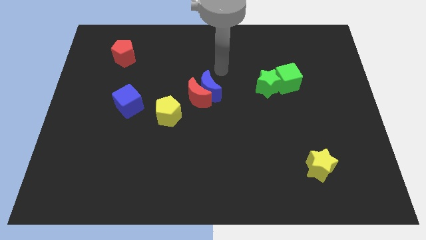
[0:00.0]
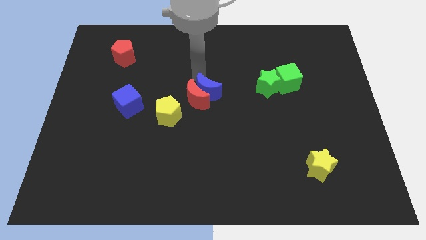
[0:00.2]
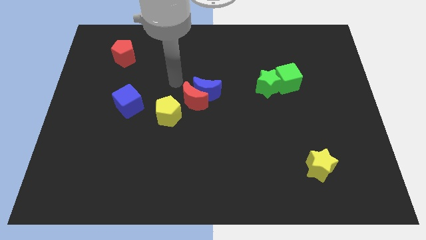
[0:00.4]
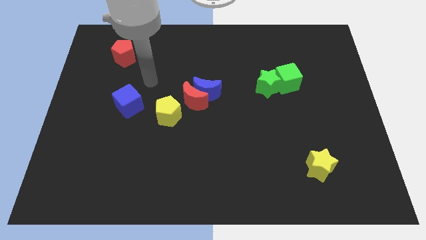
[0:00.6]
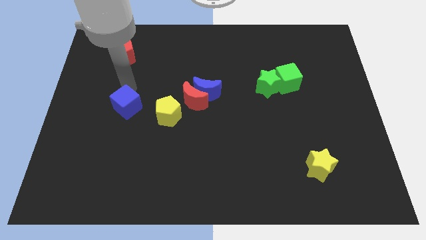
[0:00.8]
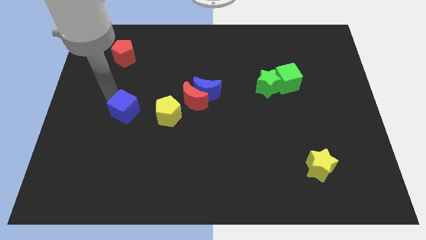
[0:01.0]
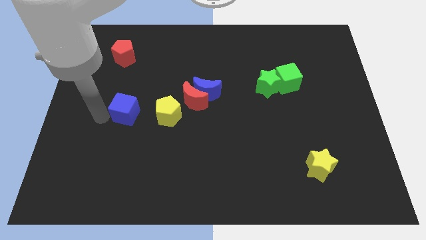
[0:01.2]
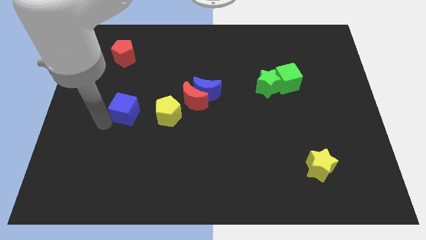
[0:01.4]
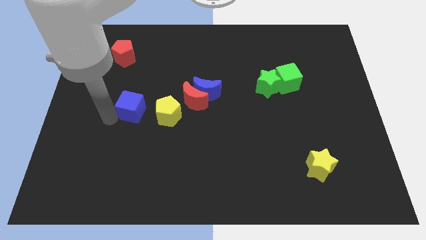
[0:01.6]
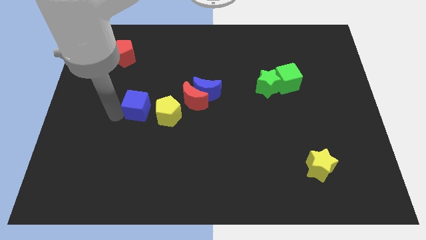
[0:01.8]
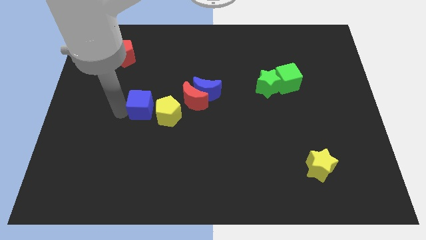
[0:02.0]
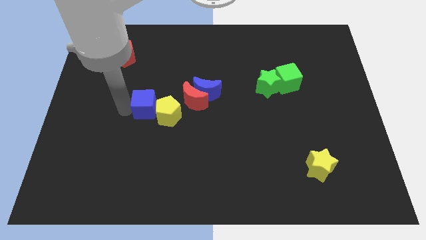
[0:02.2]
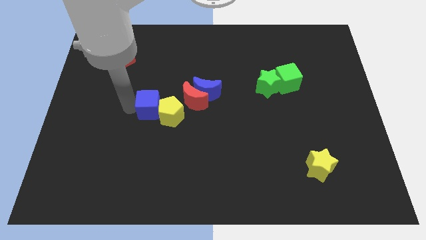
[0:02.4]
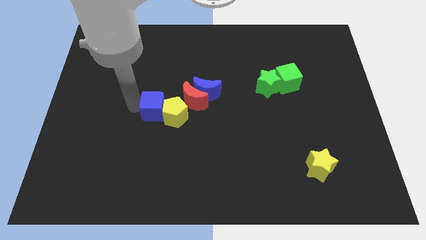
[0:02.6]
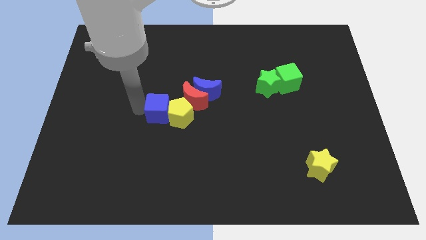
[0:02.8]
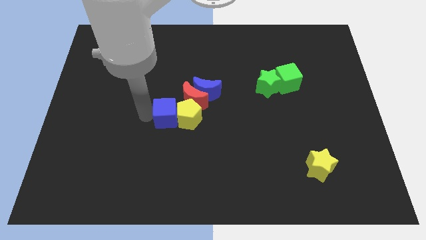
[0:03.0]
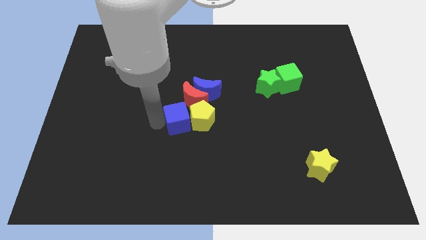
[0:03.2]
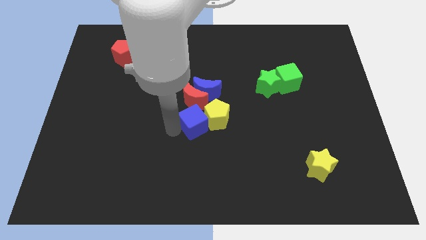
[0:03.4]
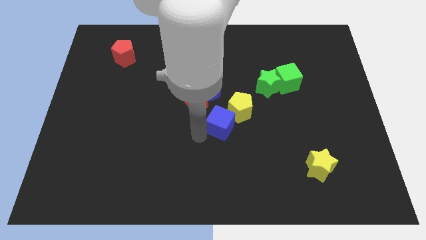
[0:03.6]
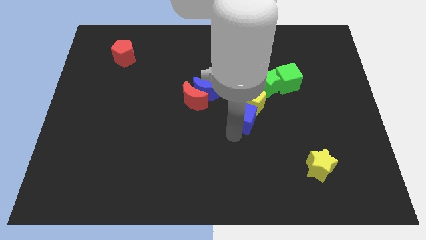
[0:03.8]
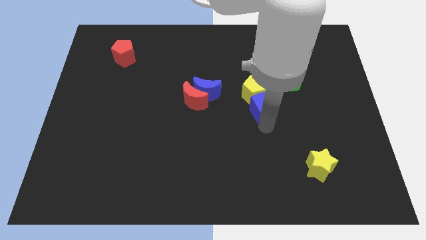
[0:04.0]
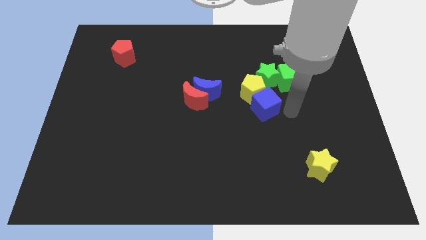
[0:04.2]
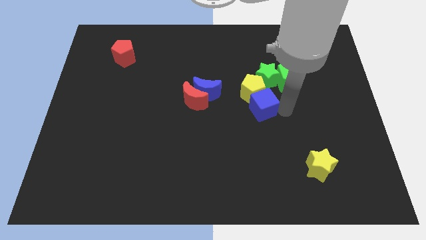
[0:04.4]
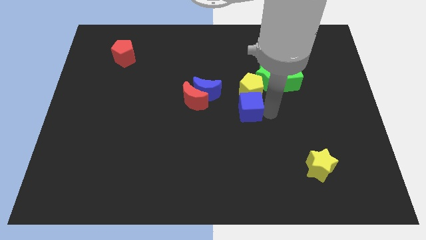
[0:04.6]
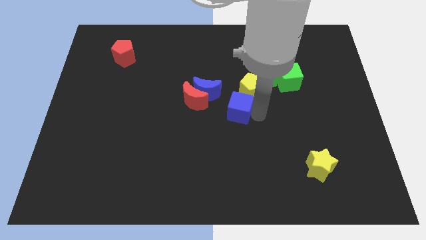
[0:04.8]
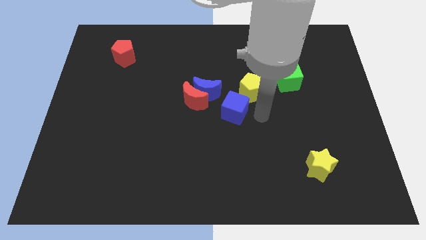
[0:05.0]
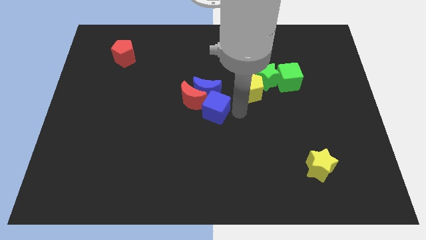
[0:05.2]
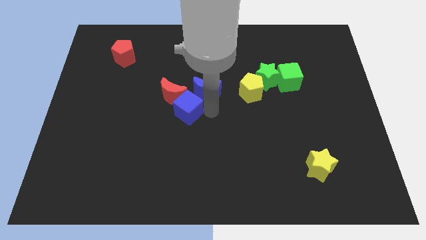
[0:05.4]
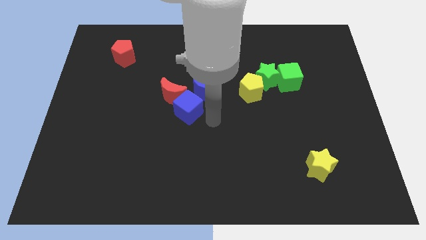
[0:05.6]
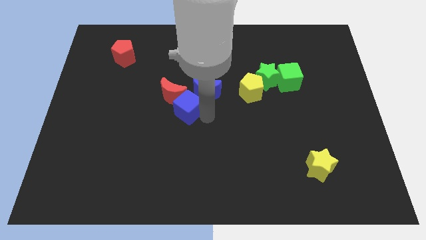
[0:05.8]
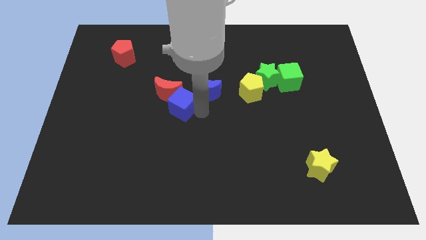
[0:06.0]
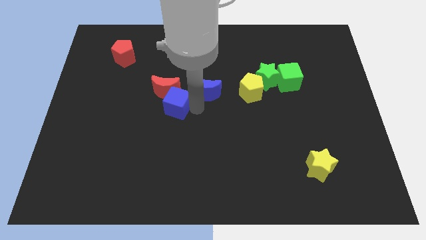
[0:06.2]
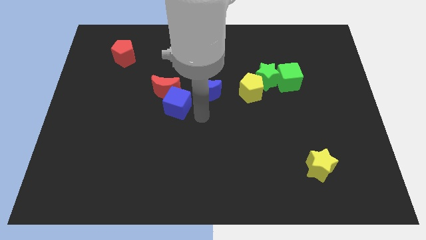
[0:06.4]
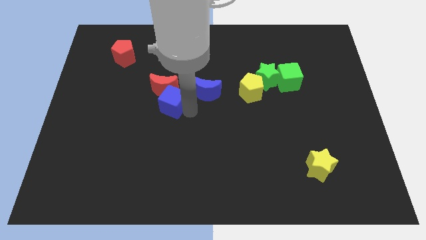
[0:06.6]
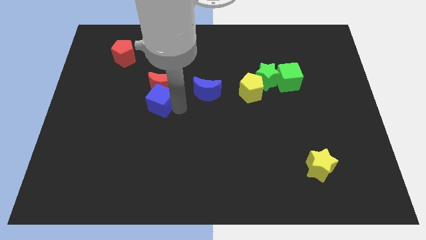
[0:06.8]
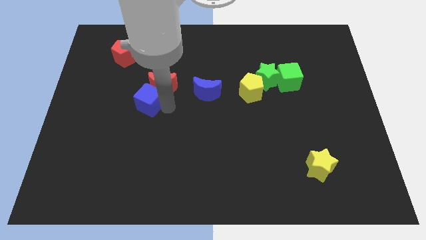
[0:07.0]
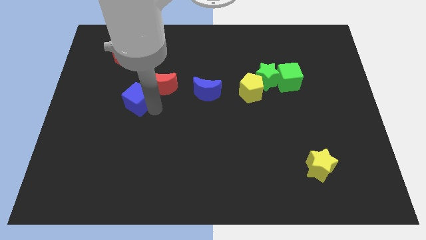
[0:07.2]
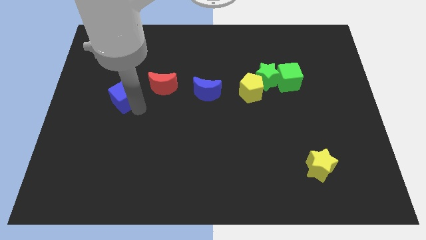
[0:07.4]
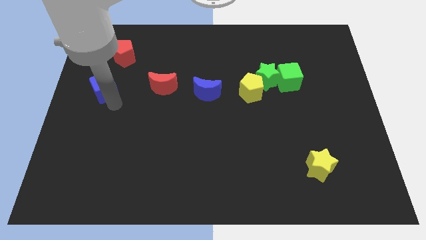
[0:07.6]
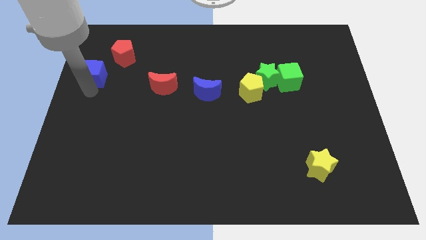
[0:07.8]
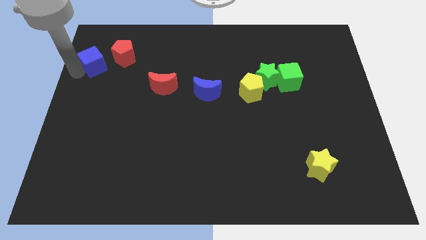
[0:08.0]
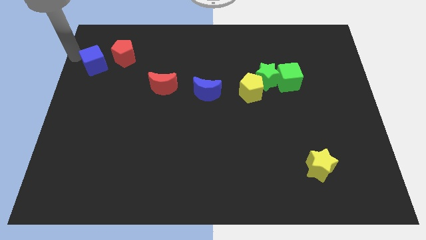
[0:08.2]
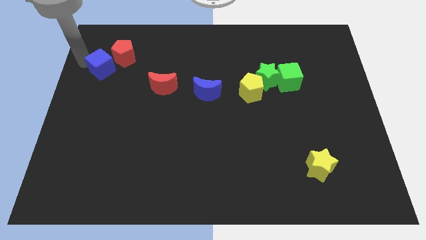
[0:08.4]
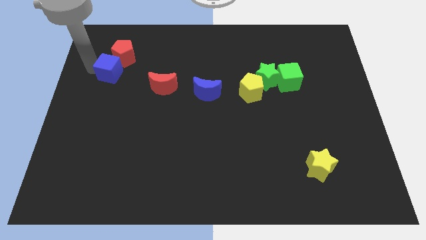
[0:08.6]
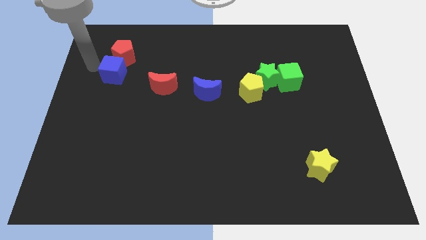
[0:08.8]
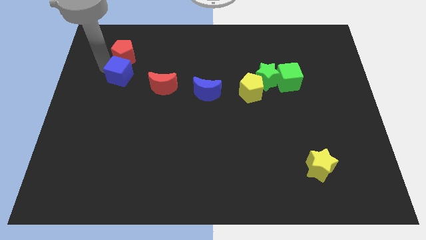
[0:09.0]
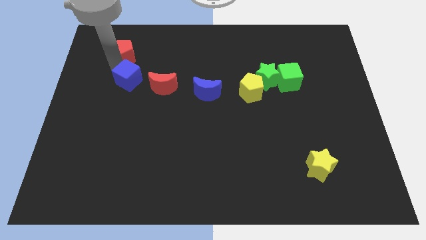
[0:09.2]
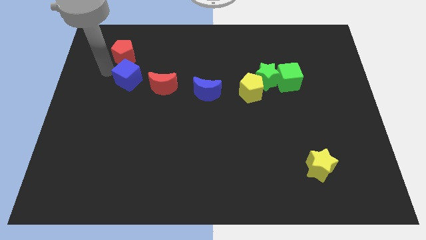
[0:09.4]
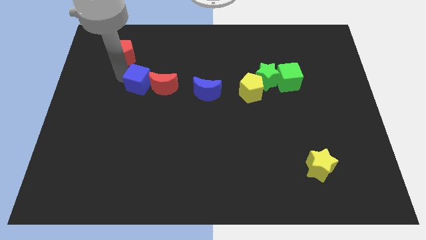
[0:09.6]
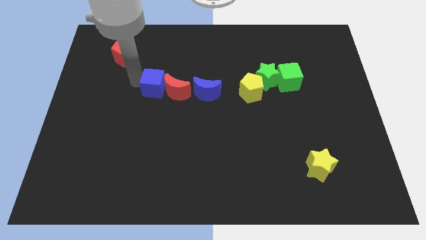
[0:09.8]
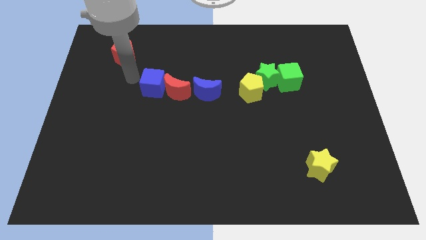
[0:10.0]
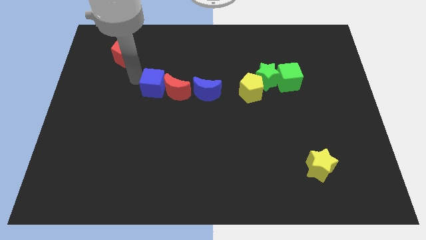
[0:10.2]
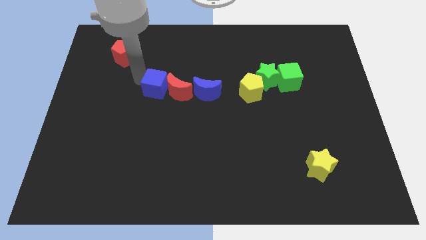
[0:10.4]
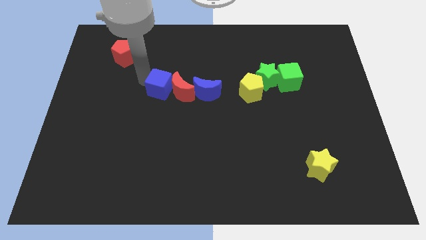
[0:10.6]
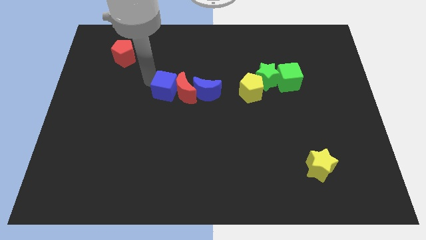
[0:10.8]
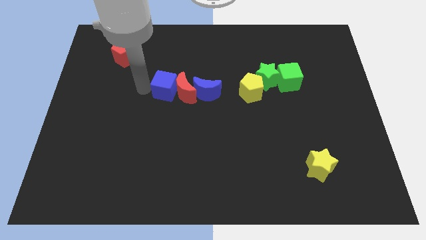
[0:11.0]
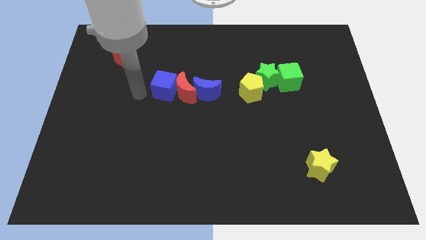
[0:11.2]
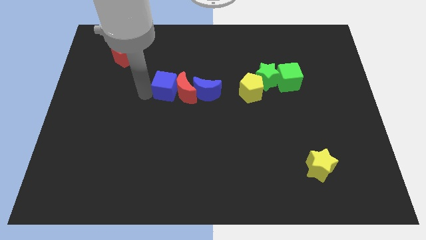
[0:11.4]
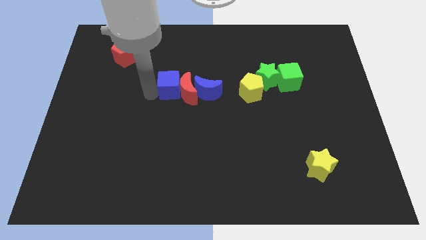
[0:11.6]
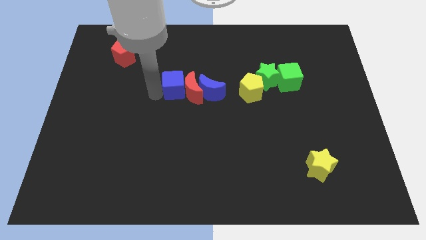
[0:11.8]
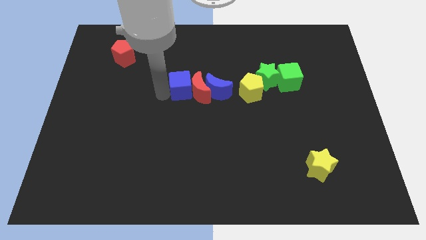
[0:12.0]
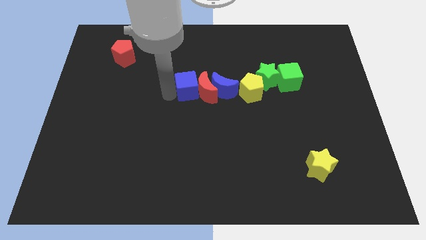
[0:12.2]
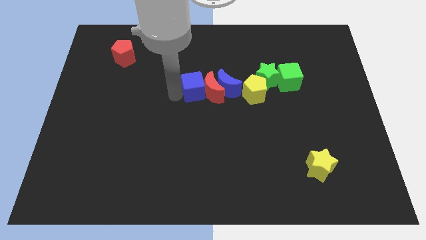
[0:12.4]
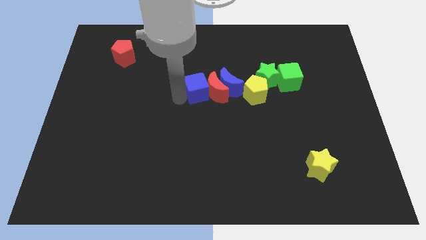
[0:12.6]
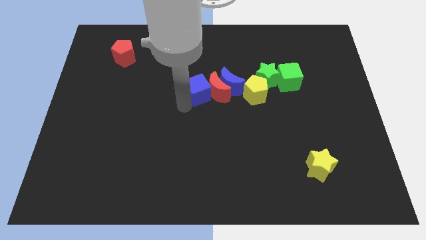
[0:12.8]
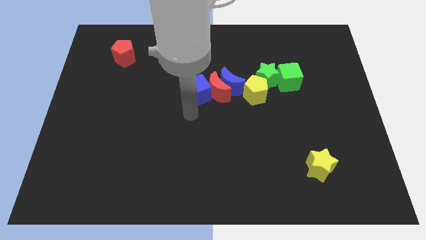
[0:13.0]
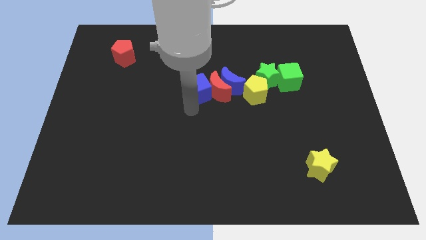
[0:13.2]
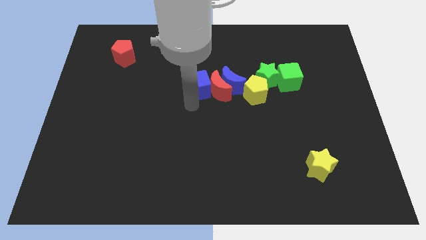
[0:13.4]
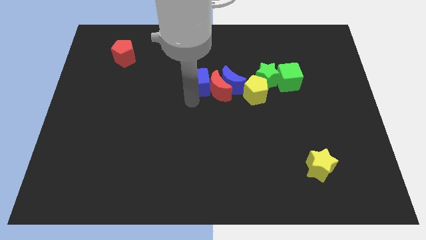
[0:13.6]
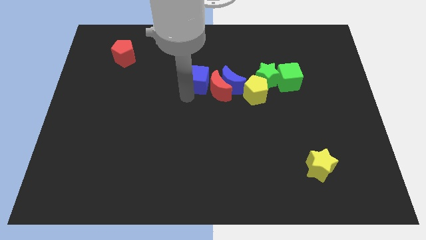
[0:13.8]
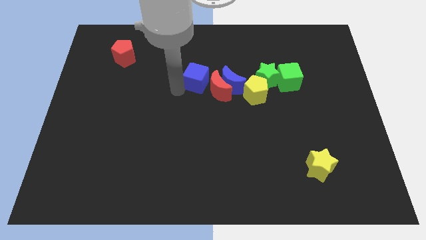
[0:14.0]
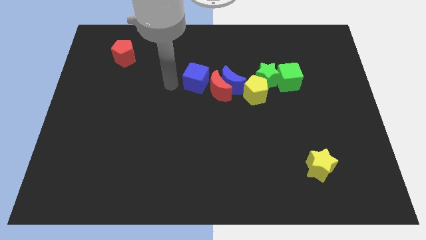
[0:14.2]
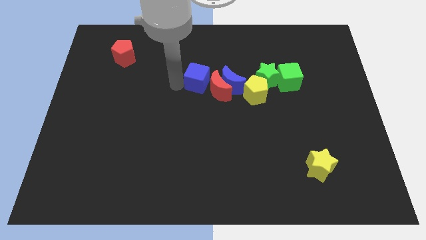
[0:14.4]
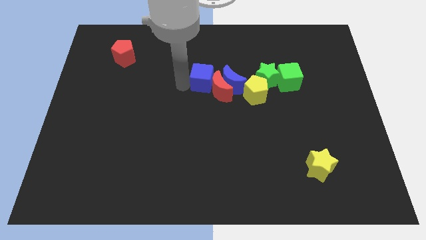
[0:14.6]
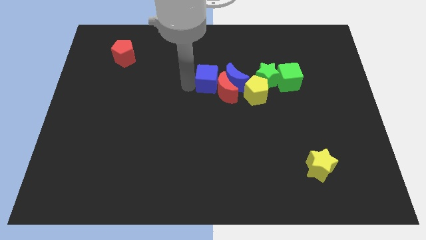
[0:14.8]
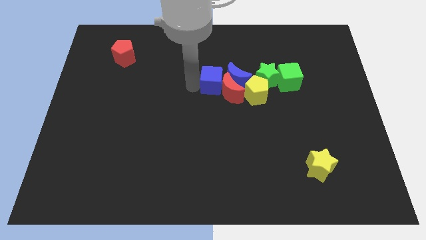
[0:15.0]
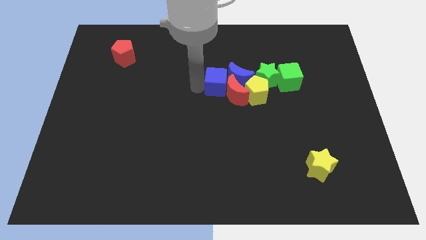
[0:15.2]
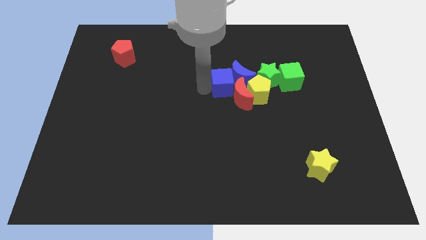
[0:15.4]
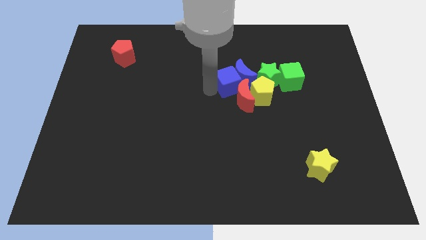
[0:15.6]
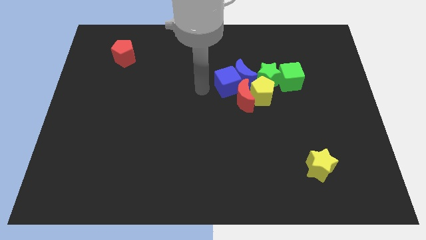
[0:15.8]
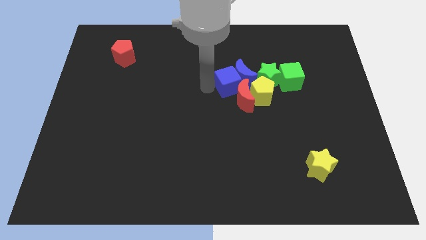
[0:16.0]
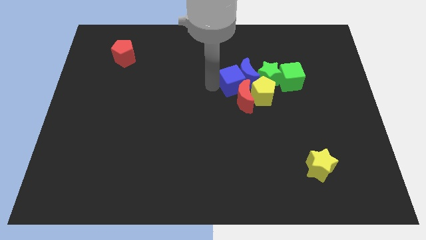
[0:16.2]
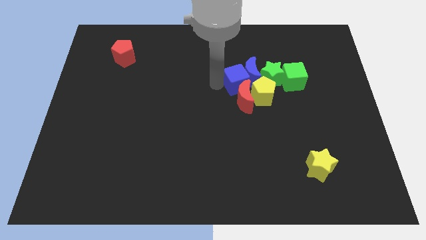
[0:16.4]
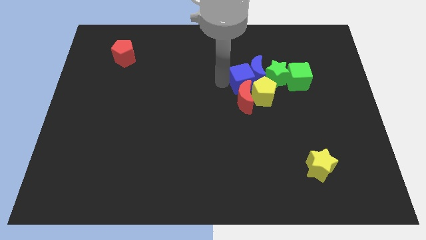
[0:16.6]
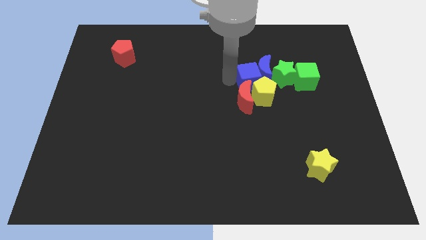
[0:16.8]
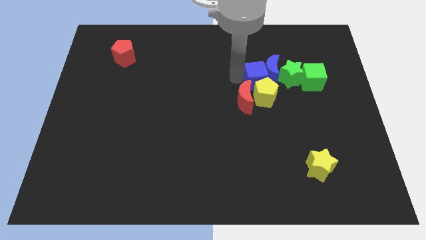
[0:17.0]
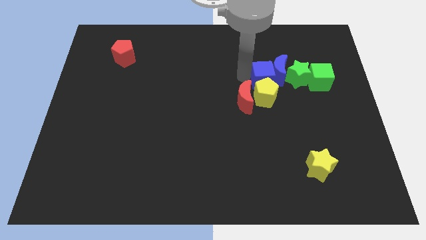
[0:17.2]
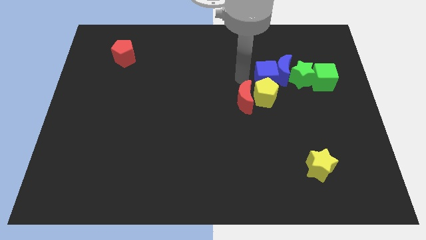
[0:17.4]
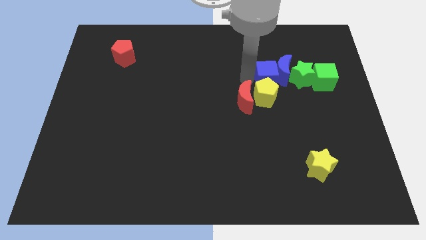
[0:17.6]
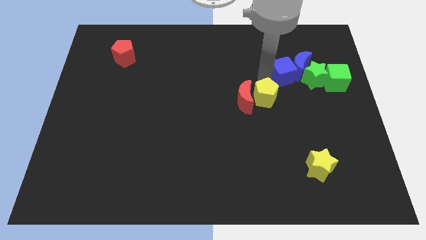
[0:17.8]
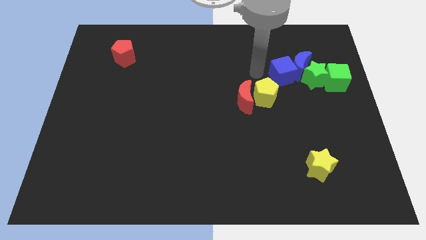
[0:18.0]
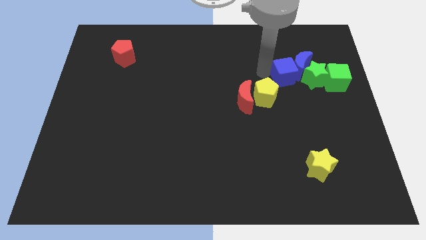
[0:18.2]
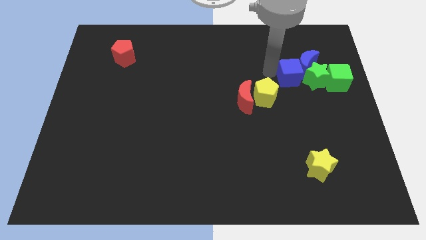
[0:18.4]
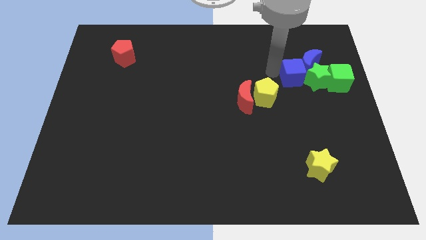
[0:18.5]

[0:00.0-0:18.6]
move the blue cube close to the green star
